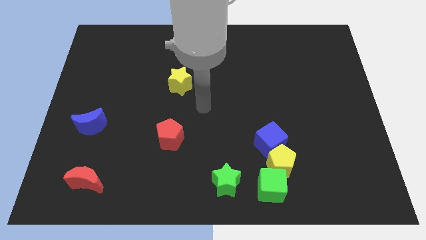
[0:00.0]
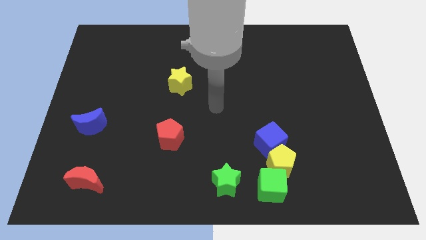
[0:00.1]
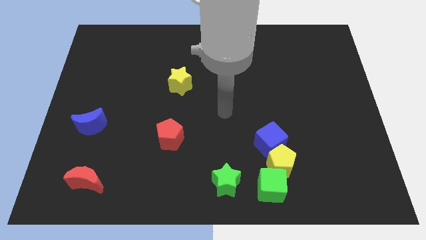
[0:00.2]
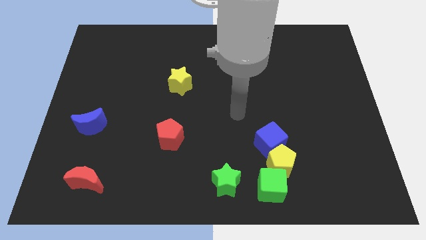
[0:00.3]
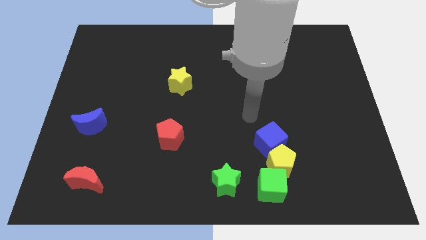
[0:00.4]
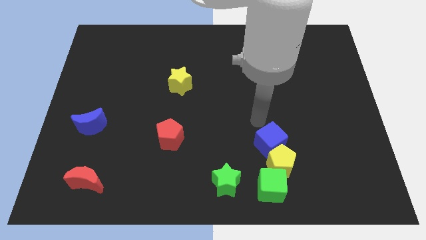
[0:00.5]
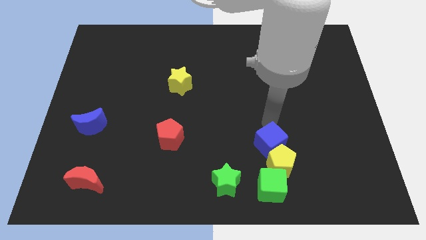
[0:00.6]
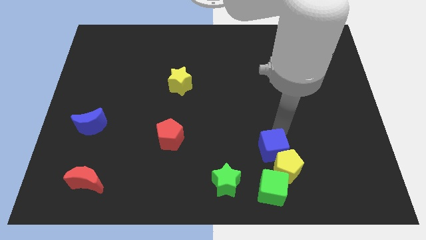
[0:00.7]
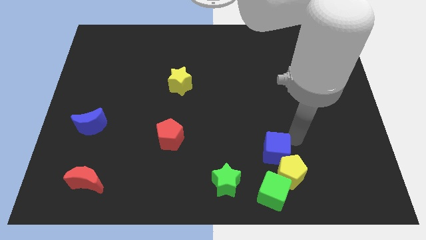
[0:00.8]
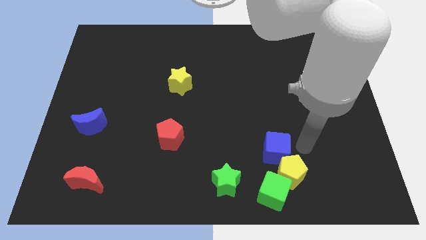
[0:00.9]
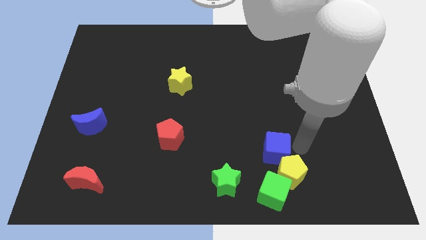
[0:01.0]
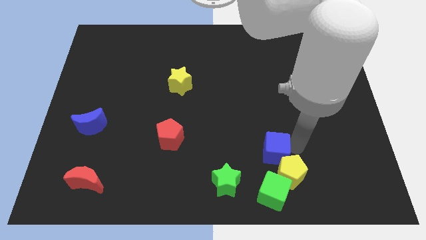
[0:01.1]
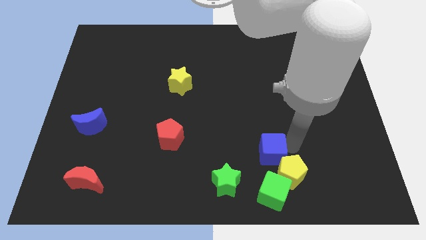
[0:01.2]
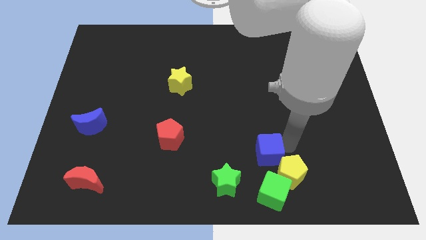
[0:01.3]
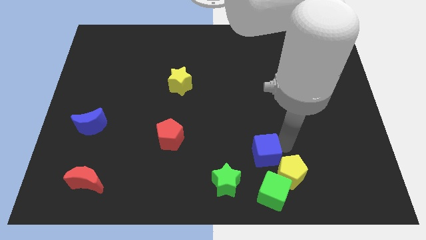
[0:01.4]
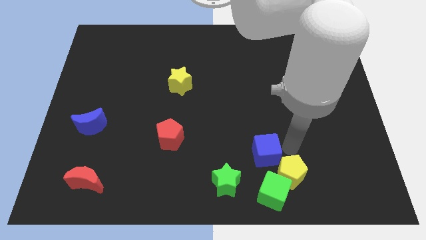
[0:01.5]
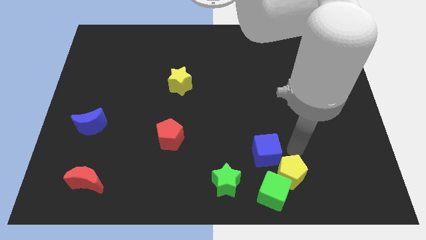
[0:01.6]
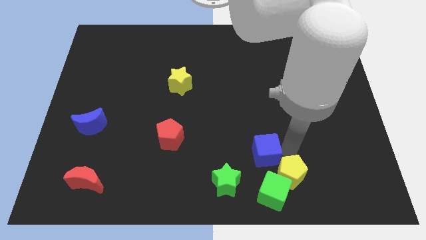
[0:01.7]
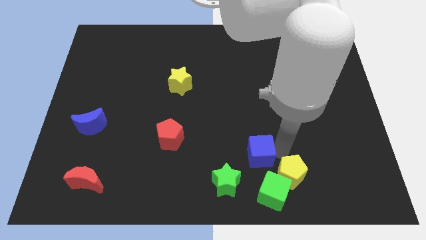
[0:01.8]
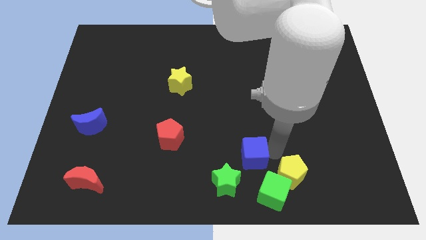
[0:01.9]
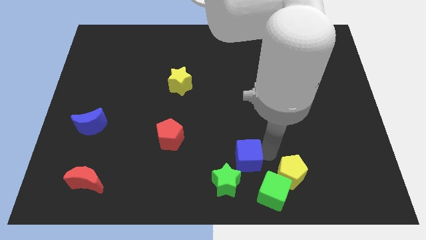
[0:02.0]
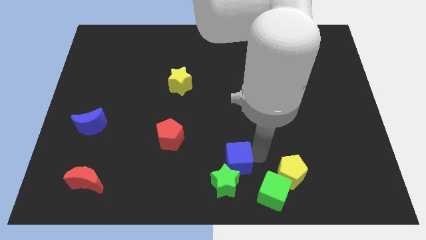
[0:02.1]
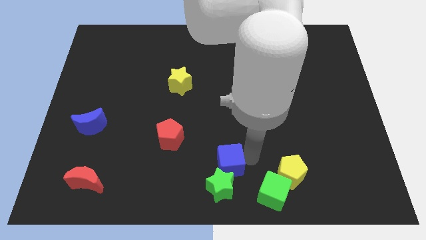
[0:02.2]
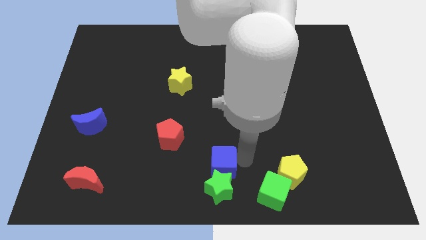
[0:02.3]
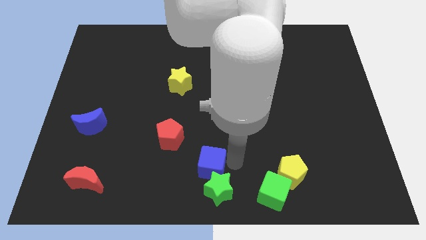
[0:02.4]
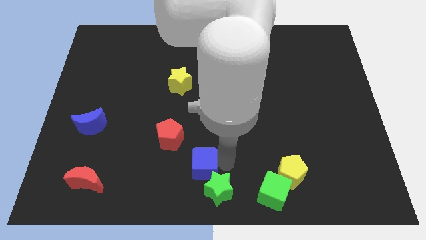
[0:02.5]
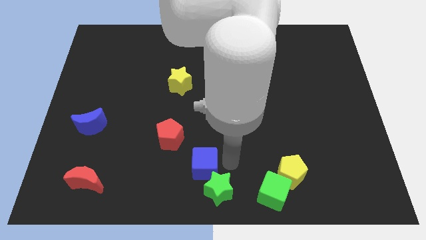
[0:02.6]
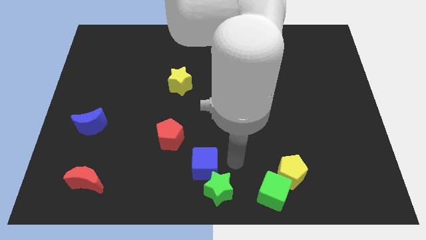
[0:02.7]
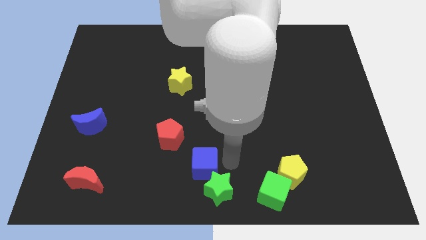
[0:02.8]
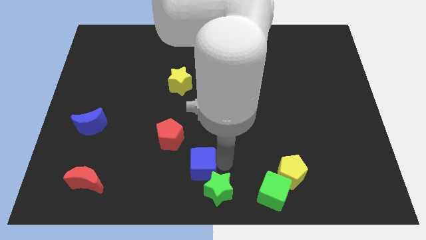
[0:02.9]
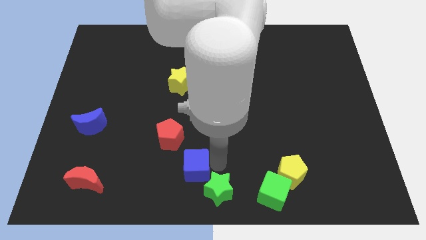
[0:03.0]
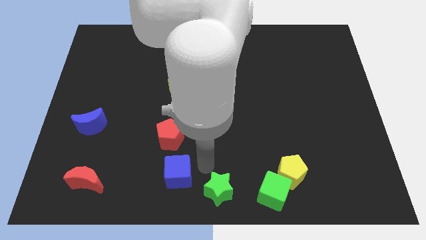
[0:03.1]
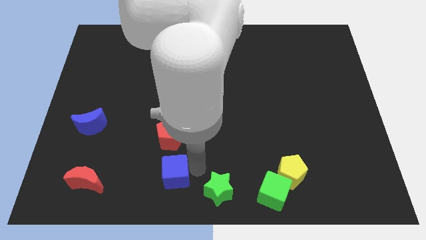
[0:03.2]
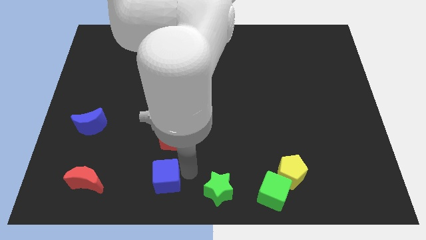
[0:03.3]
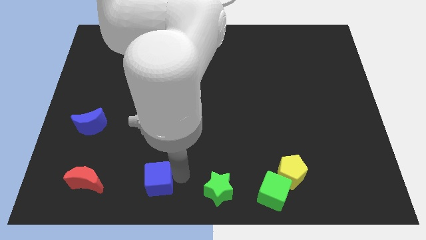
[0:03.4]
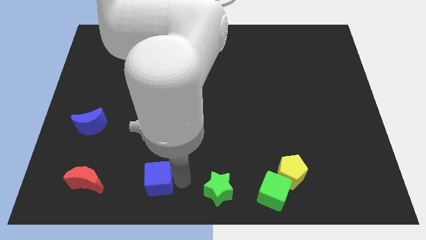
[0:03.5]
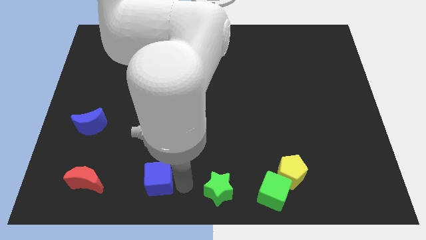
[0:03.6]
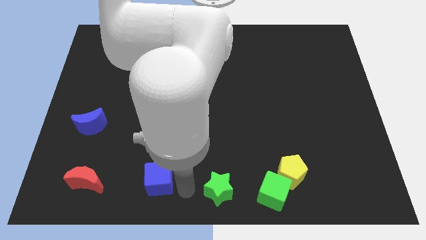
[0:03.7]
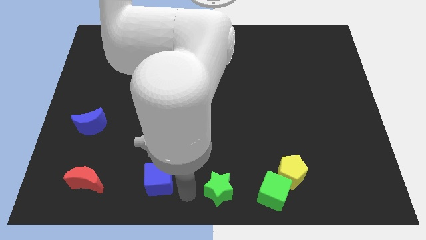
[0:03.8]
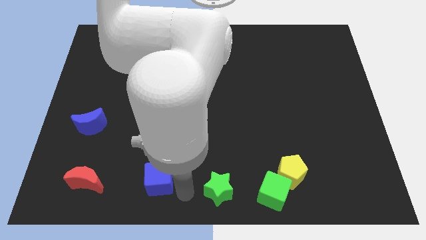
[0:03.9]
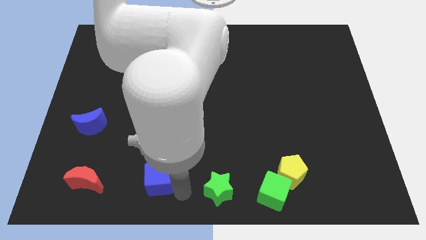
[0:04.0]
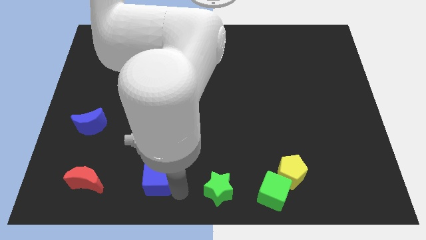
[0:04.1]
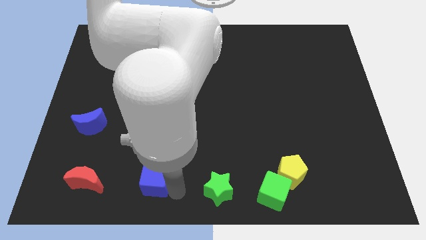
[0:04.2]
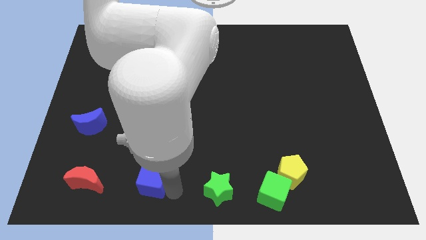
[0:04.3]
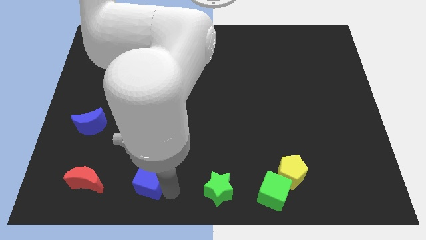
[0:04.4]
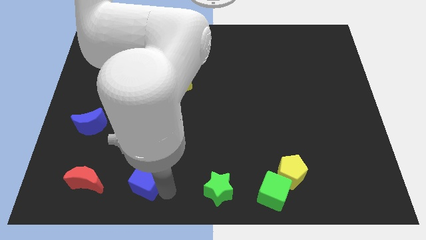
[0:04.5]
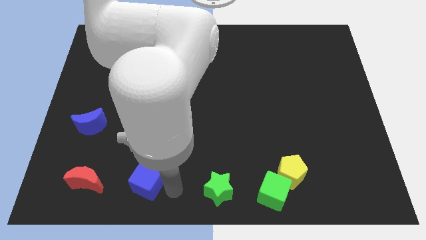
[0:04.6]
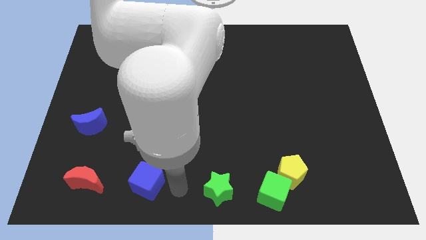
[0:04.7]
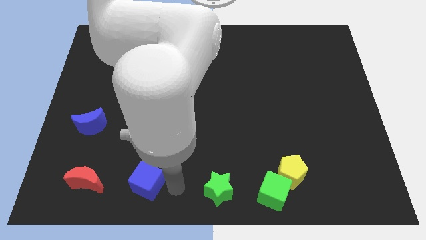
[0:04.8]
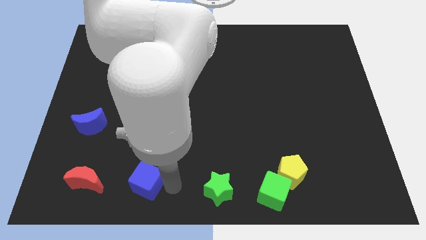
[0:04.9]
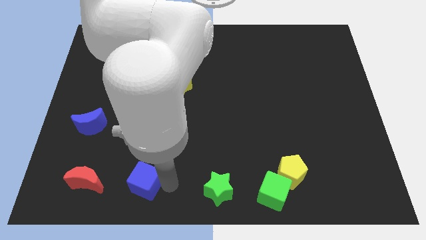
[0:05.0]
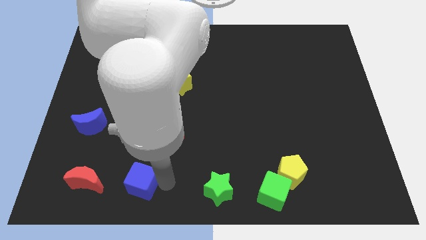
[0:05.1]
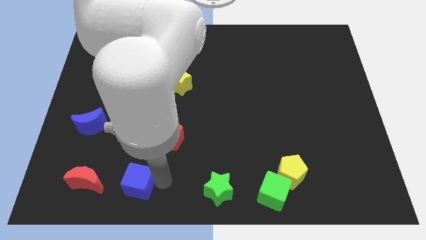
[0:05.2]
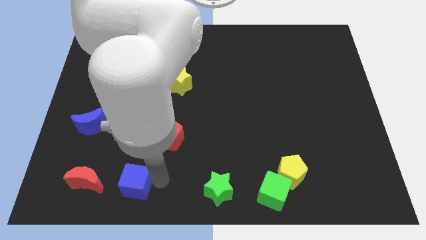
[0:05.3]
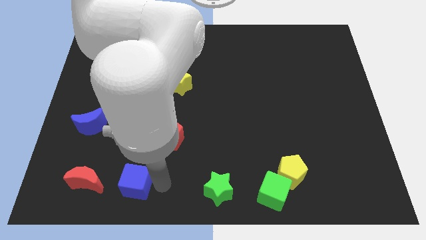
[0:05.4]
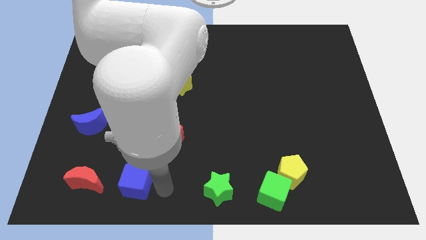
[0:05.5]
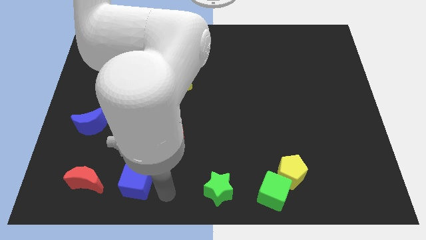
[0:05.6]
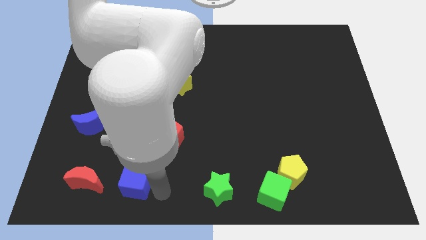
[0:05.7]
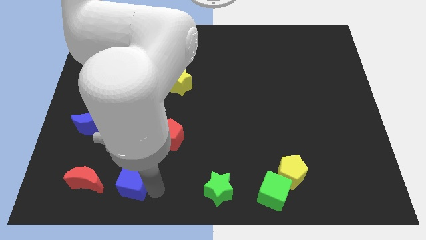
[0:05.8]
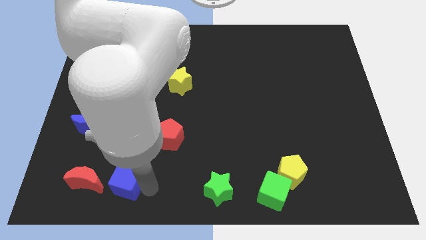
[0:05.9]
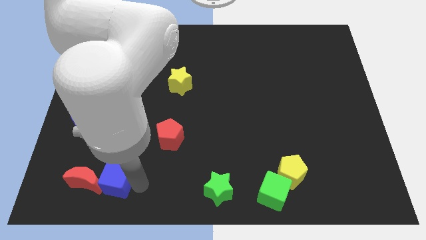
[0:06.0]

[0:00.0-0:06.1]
move the blue cube towards the red moon

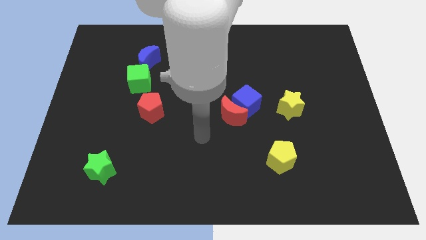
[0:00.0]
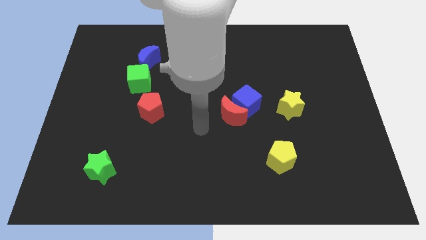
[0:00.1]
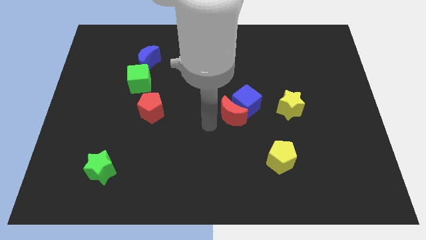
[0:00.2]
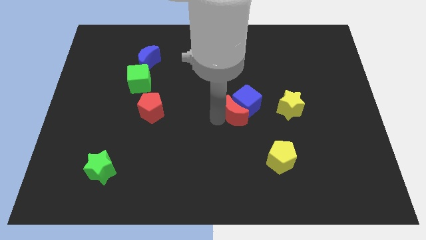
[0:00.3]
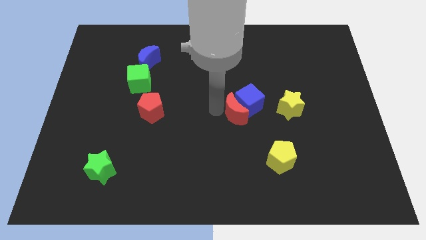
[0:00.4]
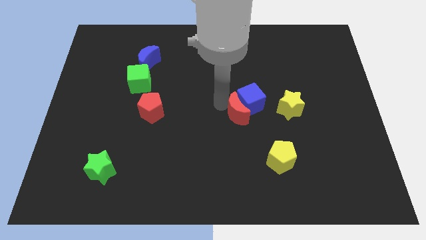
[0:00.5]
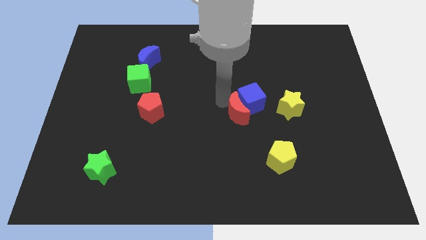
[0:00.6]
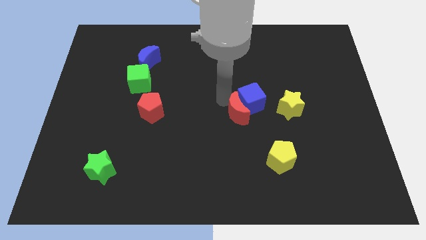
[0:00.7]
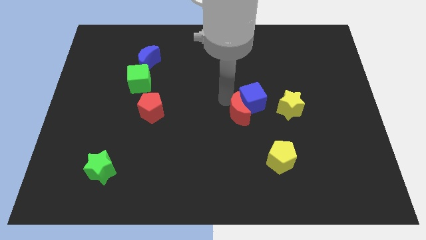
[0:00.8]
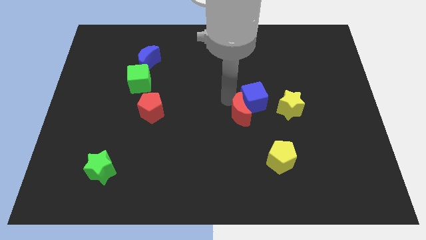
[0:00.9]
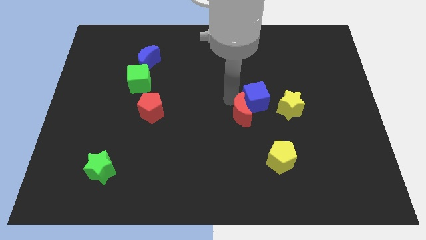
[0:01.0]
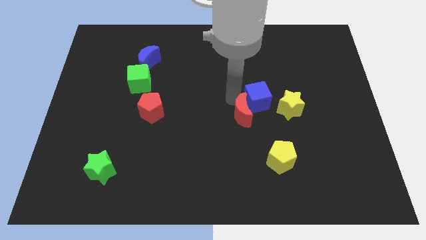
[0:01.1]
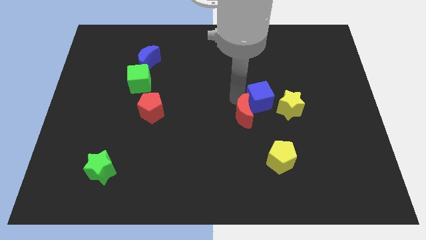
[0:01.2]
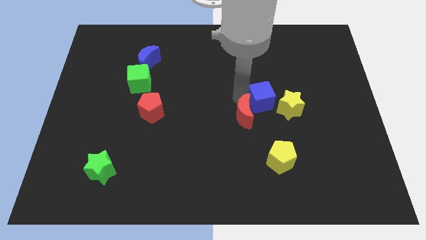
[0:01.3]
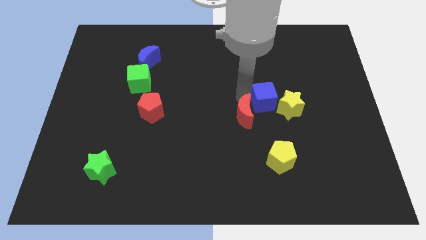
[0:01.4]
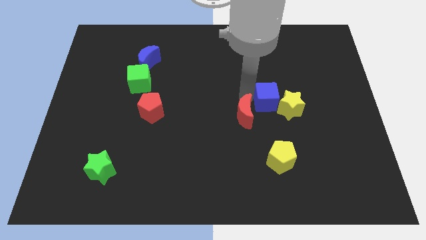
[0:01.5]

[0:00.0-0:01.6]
push the blue cube close to the yellow star

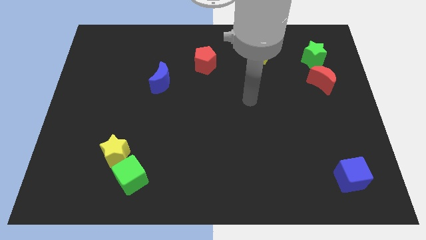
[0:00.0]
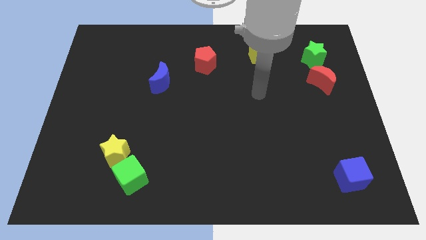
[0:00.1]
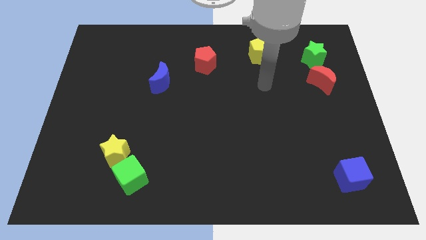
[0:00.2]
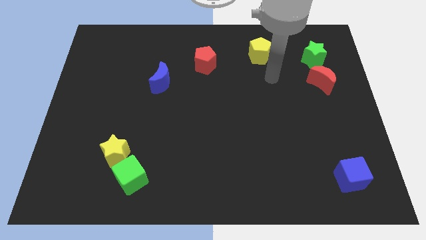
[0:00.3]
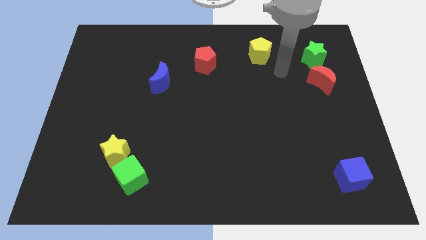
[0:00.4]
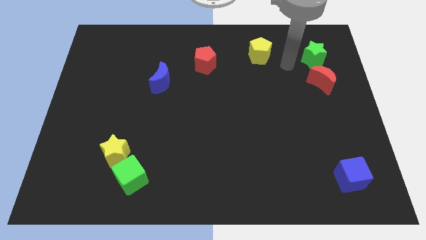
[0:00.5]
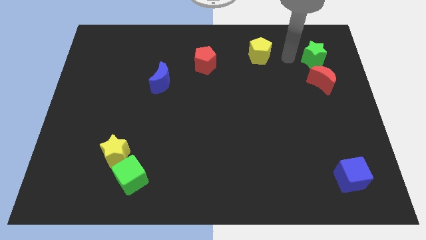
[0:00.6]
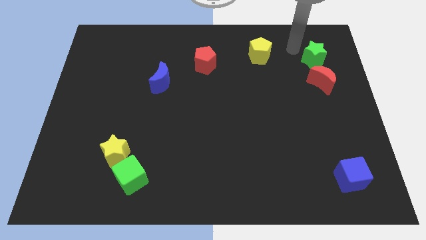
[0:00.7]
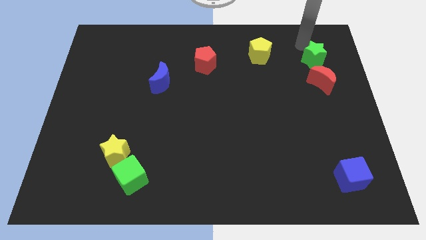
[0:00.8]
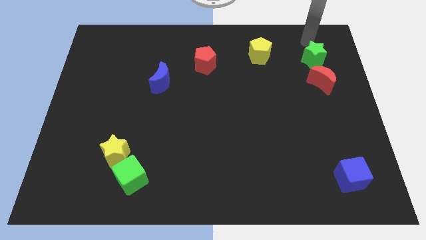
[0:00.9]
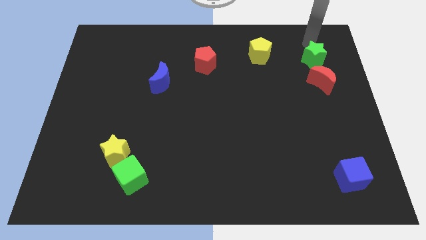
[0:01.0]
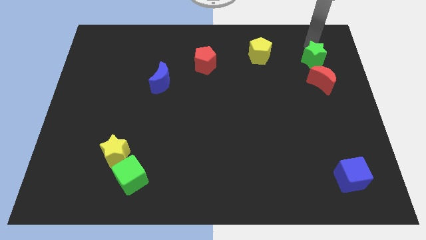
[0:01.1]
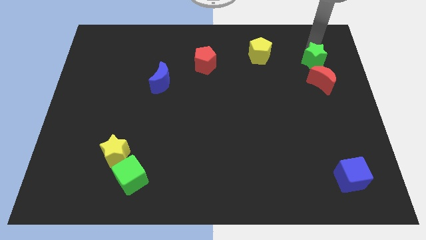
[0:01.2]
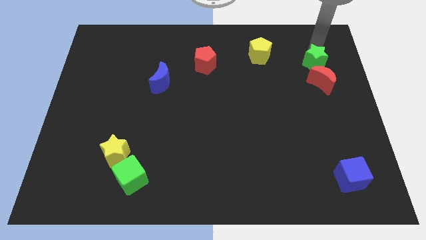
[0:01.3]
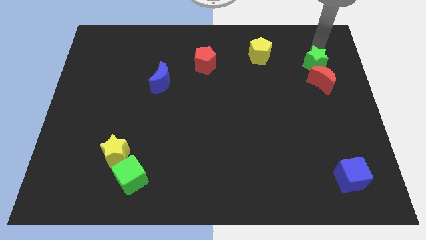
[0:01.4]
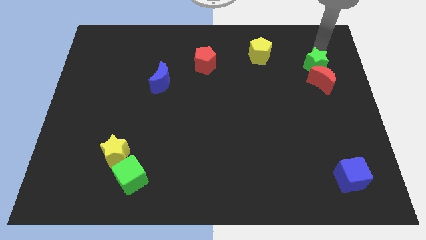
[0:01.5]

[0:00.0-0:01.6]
move the green star next to the red moon
